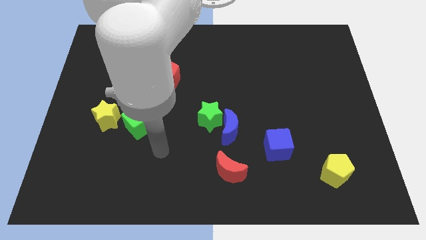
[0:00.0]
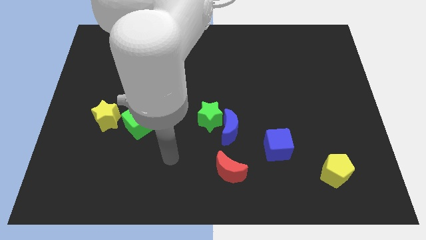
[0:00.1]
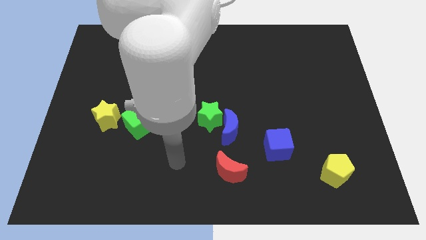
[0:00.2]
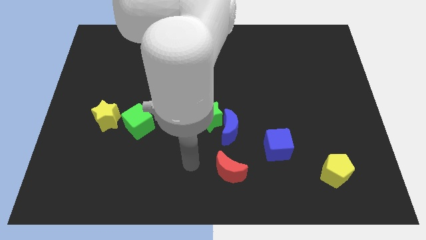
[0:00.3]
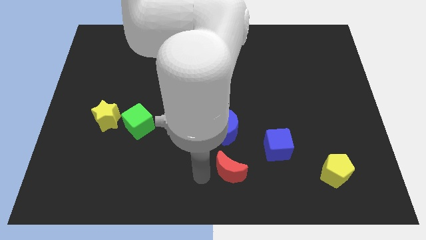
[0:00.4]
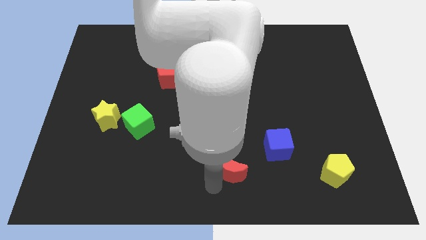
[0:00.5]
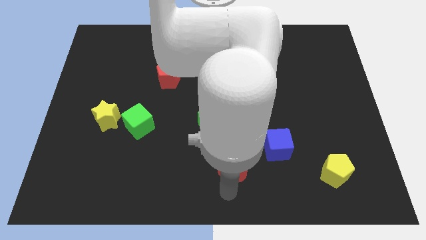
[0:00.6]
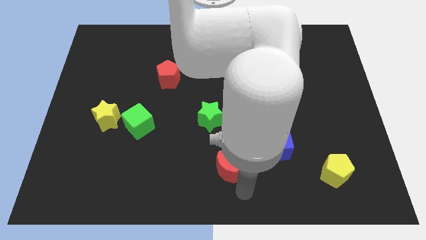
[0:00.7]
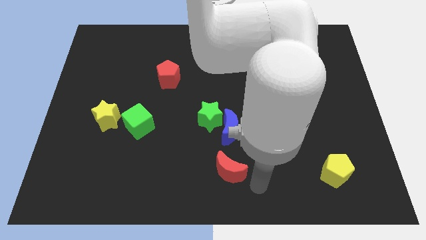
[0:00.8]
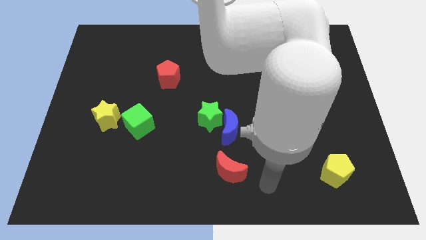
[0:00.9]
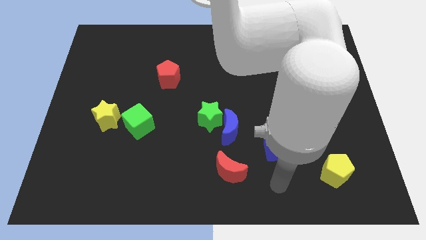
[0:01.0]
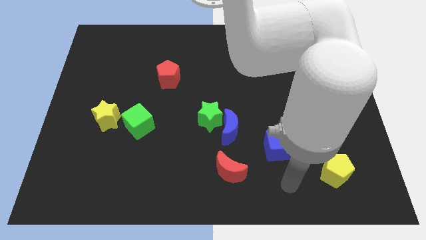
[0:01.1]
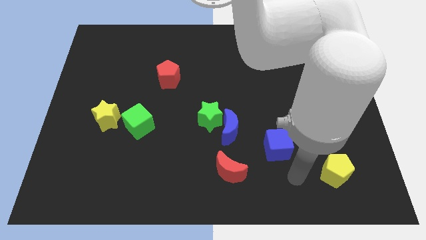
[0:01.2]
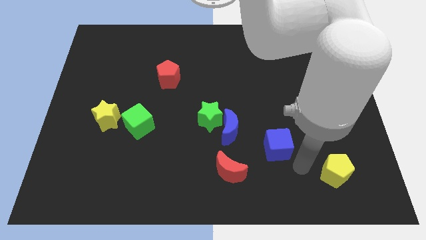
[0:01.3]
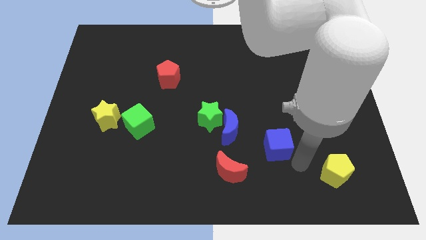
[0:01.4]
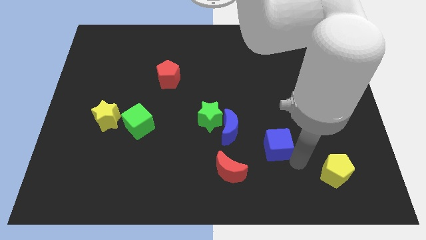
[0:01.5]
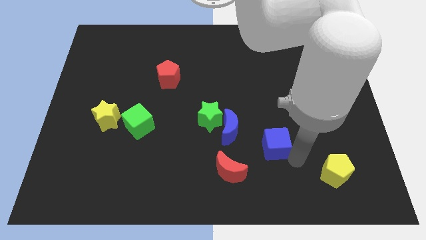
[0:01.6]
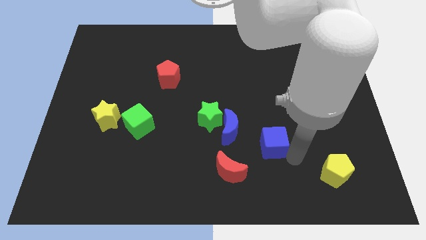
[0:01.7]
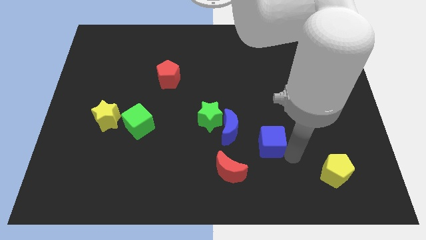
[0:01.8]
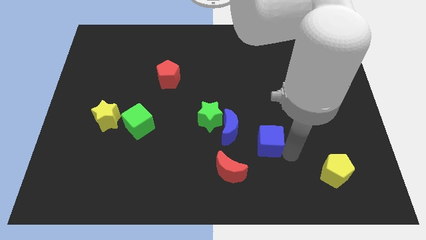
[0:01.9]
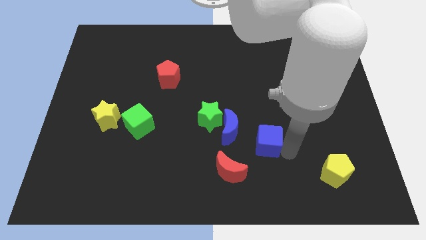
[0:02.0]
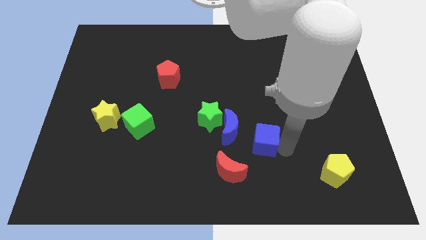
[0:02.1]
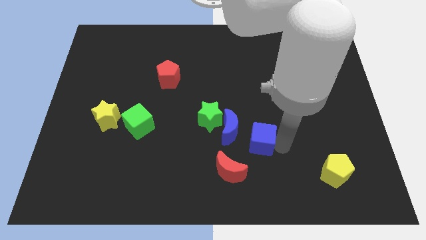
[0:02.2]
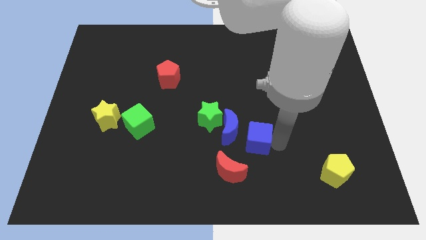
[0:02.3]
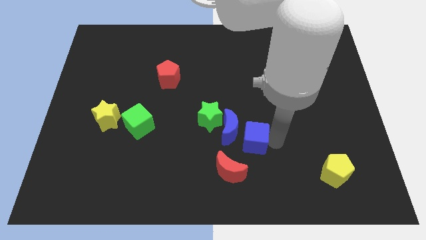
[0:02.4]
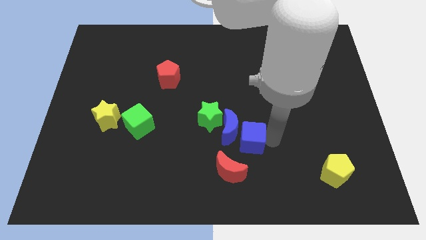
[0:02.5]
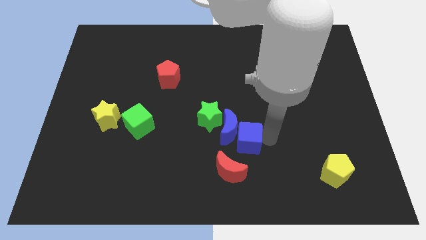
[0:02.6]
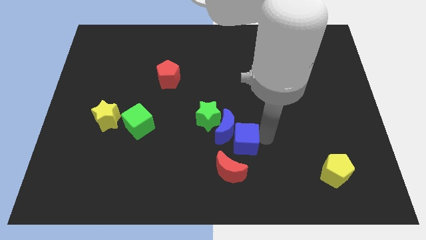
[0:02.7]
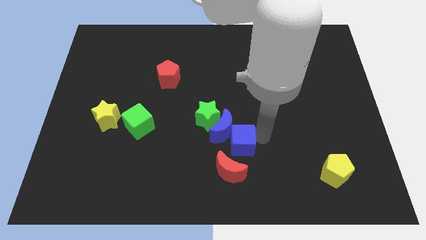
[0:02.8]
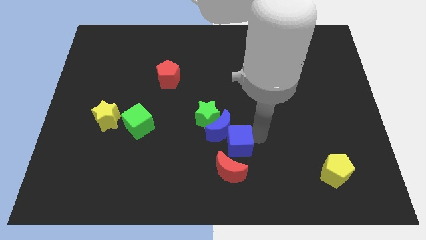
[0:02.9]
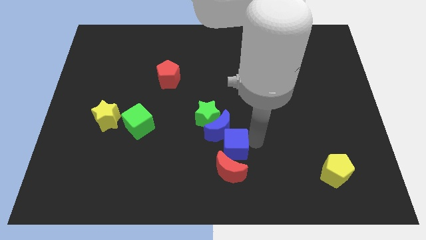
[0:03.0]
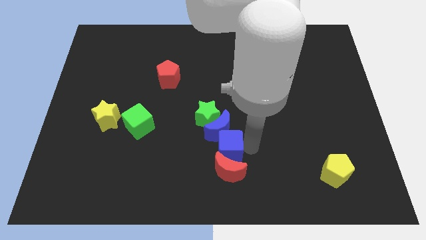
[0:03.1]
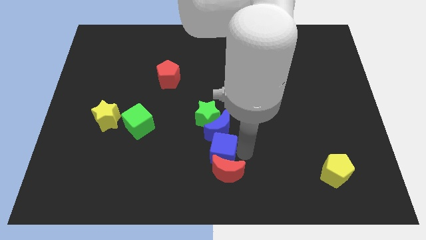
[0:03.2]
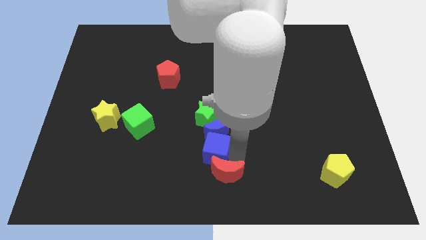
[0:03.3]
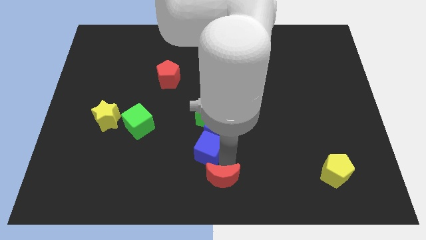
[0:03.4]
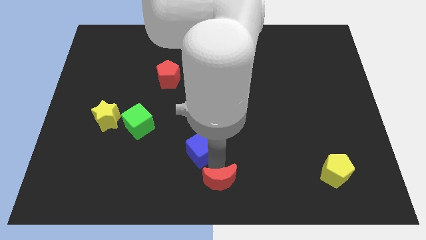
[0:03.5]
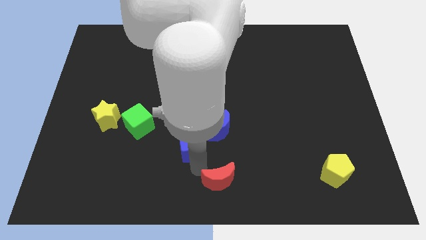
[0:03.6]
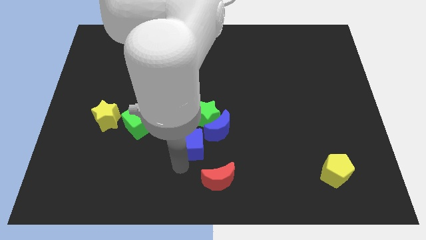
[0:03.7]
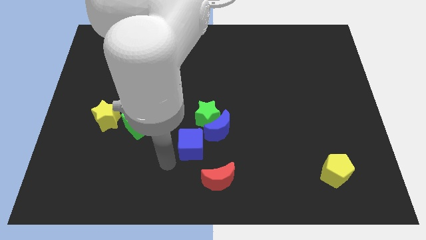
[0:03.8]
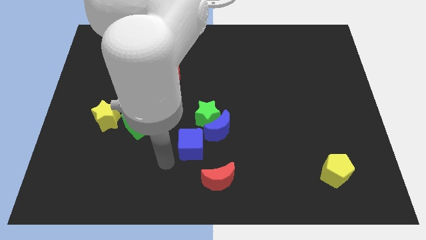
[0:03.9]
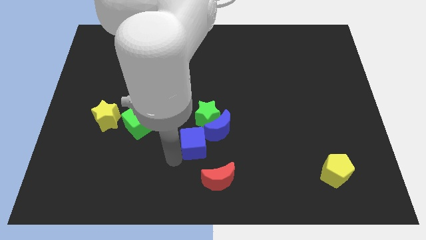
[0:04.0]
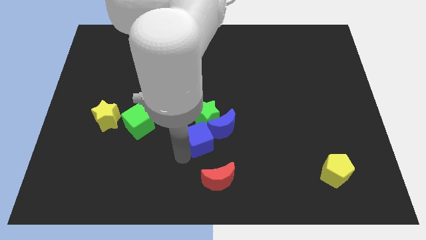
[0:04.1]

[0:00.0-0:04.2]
slightly slide the blue cube up and to the left diagonally

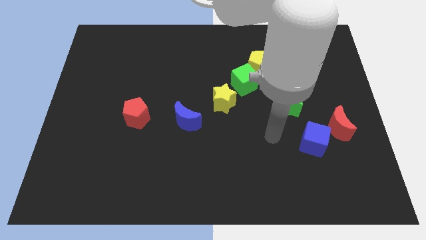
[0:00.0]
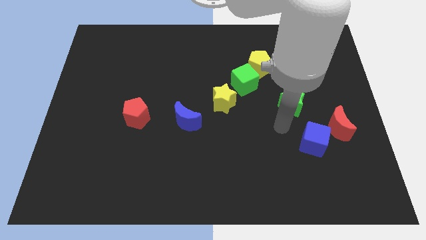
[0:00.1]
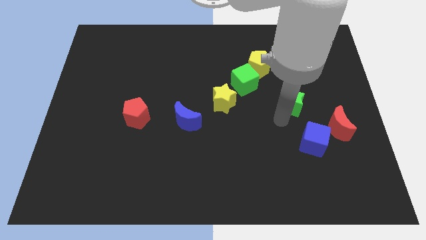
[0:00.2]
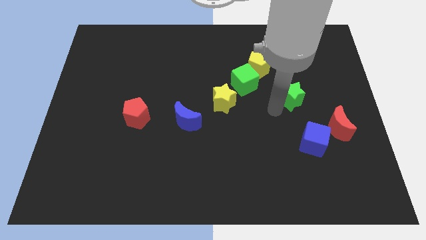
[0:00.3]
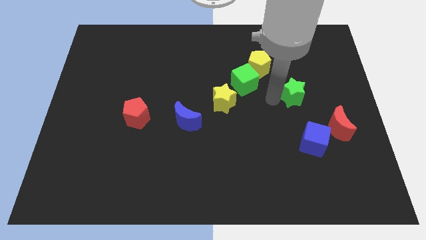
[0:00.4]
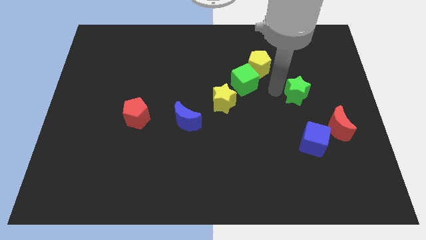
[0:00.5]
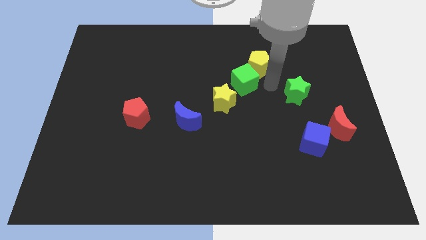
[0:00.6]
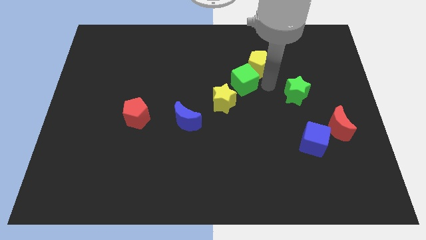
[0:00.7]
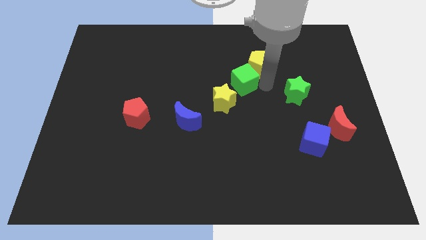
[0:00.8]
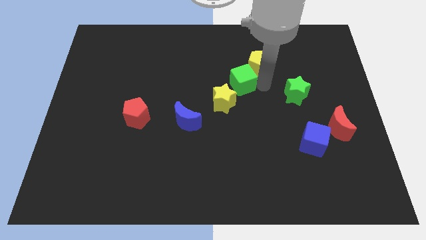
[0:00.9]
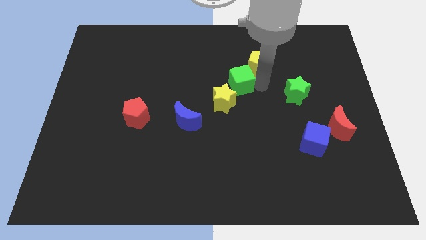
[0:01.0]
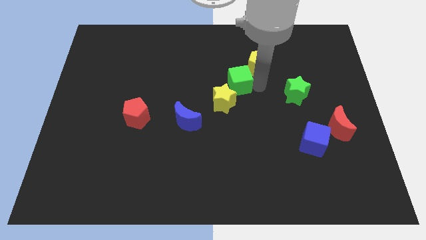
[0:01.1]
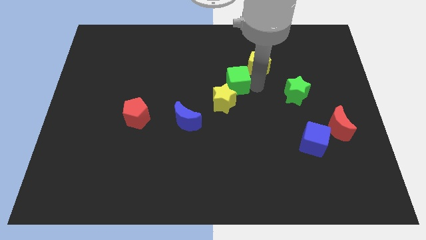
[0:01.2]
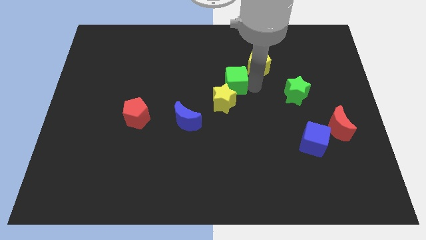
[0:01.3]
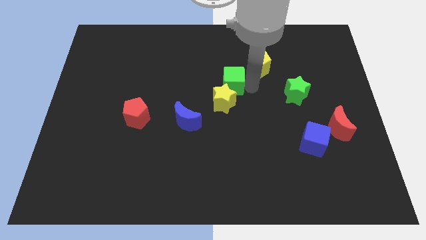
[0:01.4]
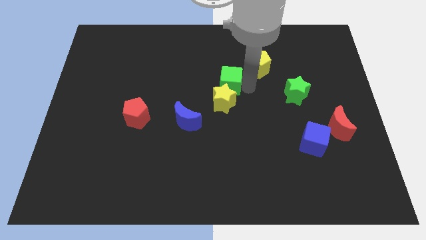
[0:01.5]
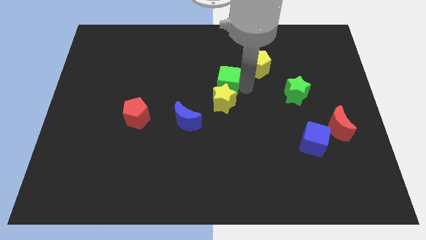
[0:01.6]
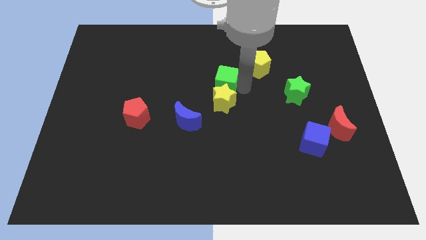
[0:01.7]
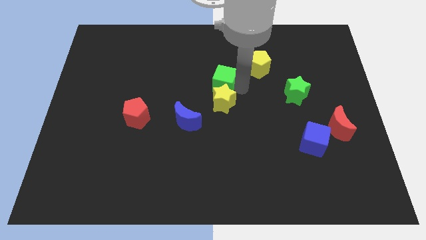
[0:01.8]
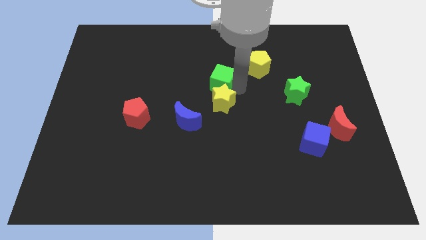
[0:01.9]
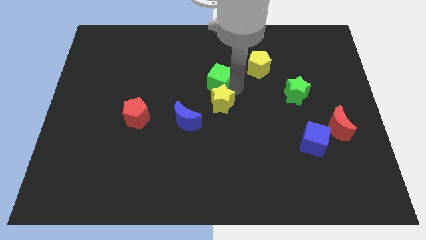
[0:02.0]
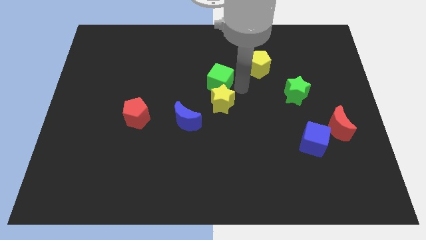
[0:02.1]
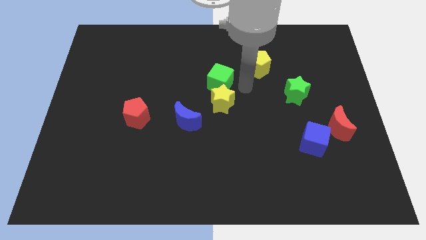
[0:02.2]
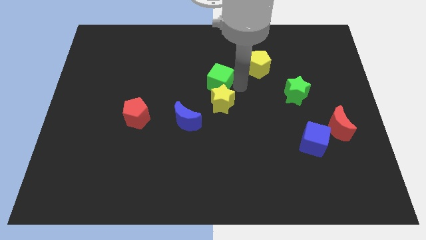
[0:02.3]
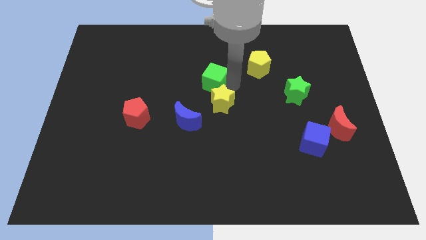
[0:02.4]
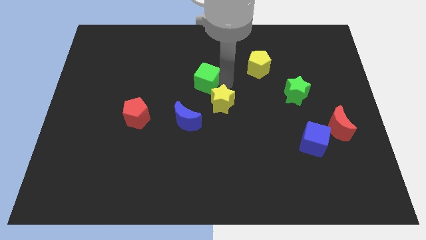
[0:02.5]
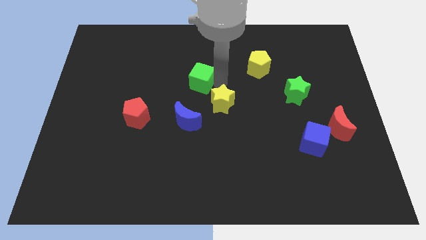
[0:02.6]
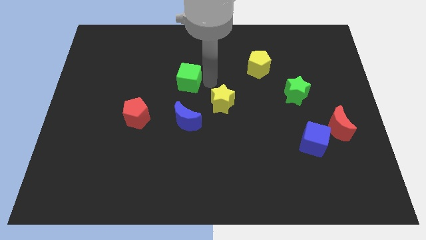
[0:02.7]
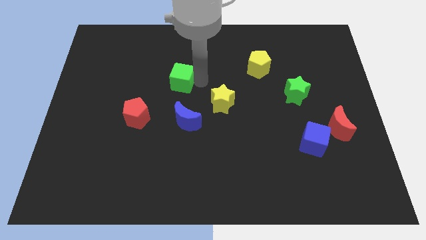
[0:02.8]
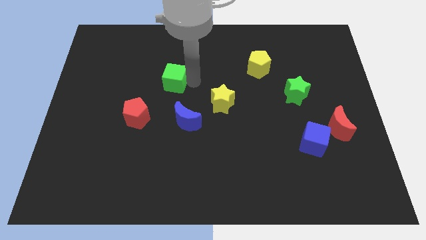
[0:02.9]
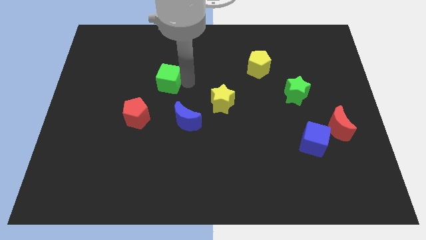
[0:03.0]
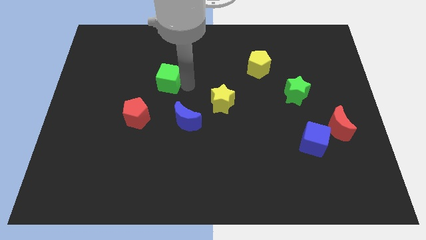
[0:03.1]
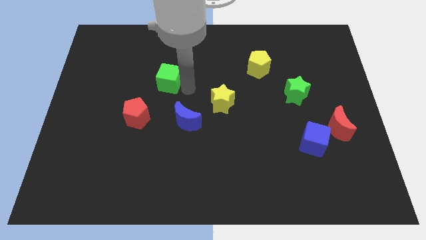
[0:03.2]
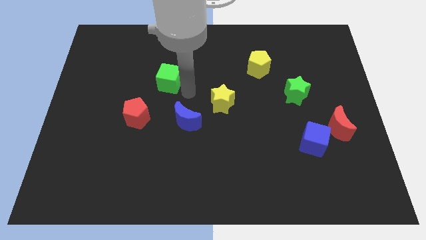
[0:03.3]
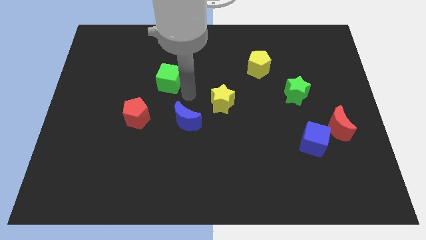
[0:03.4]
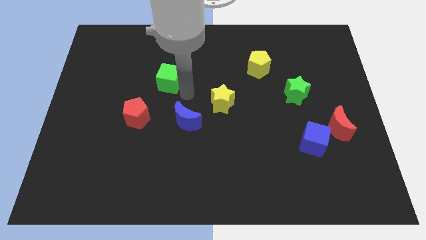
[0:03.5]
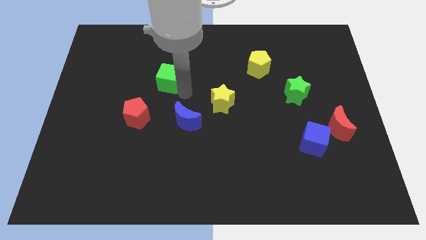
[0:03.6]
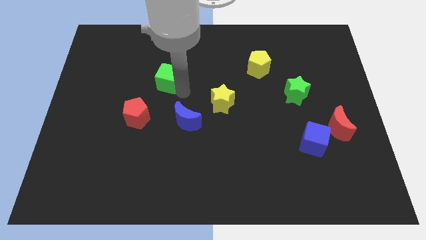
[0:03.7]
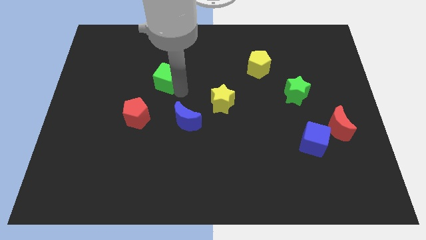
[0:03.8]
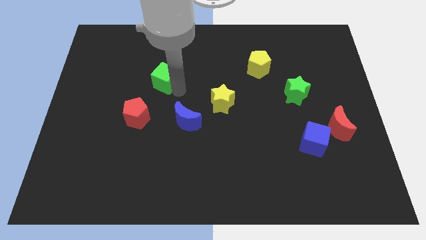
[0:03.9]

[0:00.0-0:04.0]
push the green cube left
